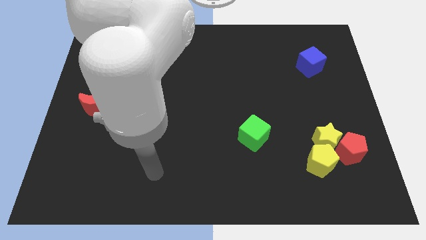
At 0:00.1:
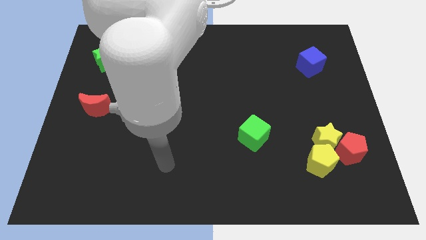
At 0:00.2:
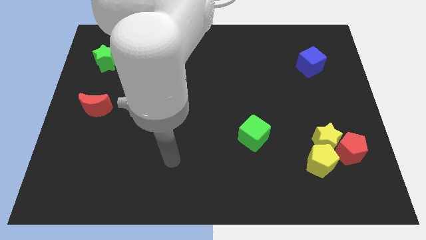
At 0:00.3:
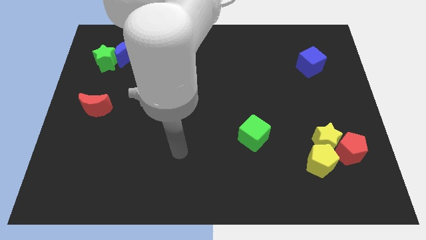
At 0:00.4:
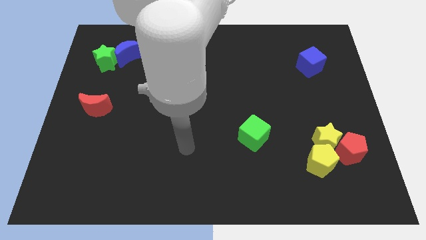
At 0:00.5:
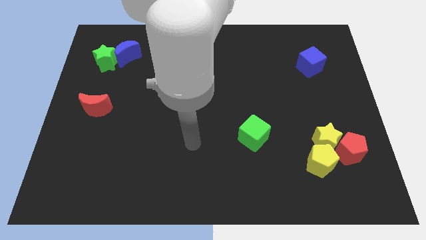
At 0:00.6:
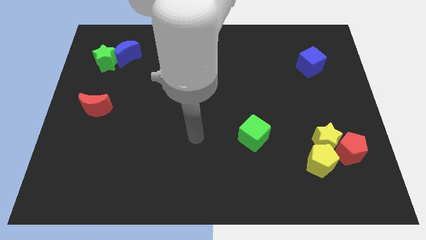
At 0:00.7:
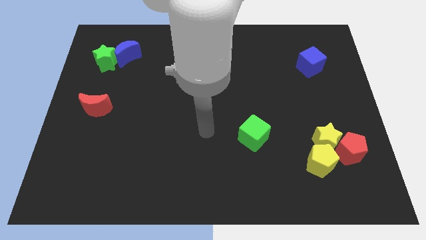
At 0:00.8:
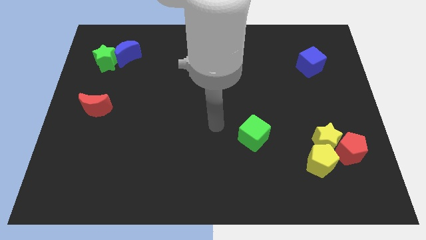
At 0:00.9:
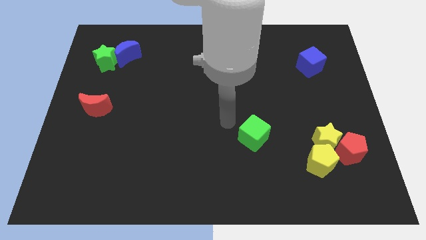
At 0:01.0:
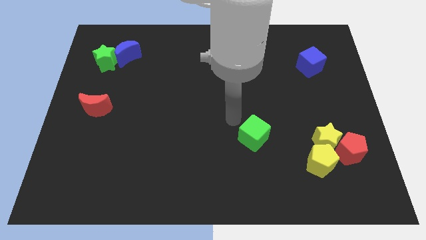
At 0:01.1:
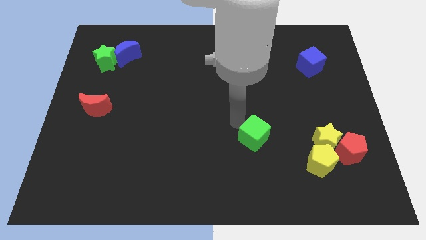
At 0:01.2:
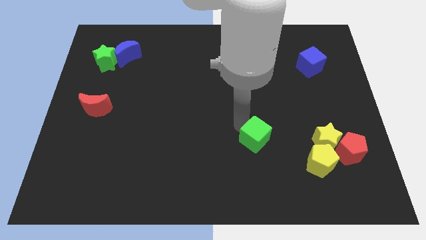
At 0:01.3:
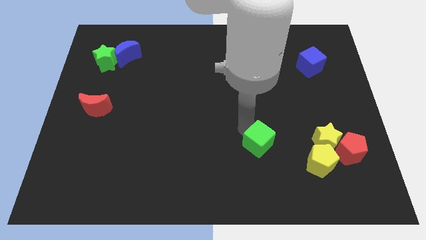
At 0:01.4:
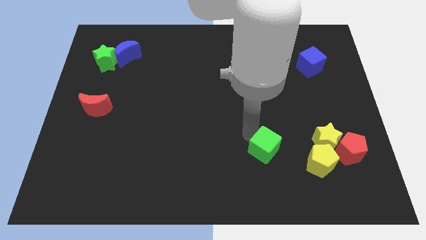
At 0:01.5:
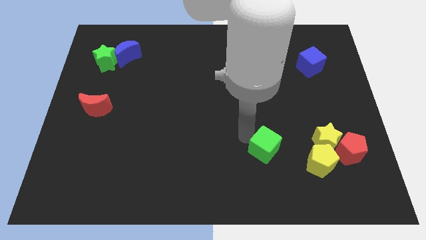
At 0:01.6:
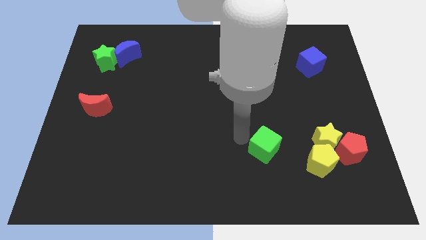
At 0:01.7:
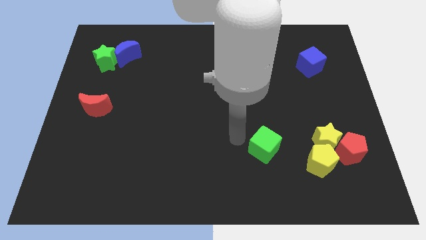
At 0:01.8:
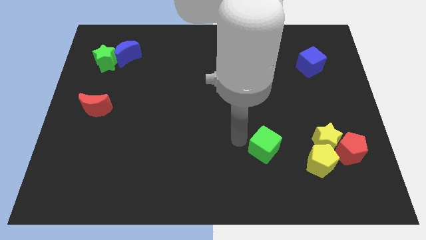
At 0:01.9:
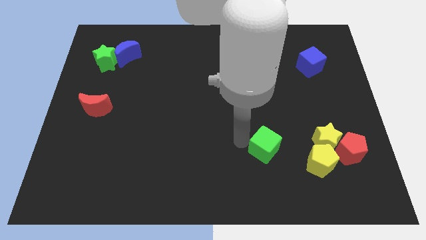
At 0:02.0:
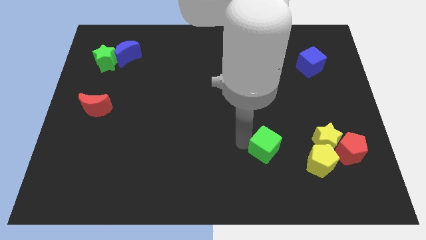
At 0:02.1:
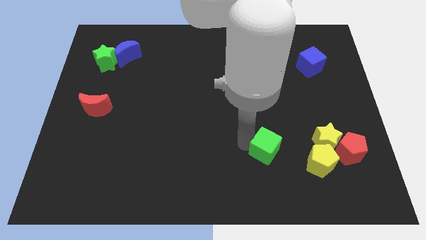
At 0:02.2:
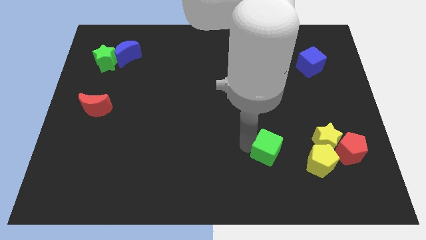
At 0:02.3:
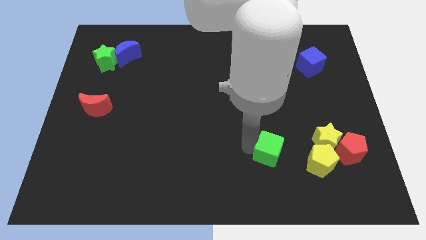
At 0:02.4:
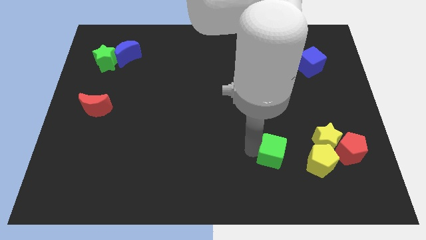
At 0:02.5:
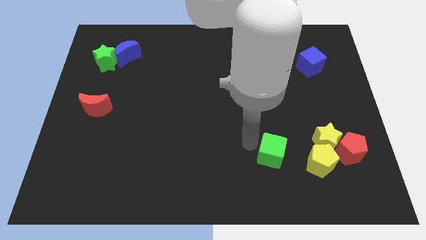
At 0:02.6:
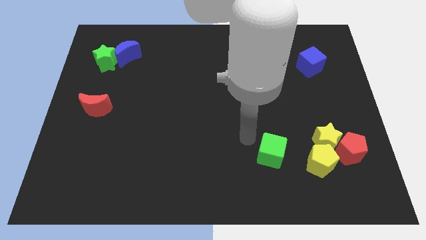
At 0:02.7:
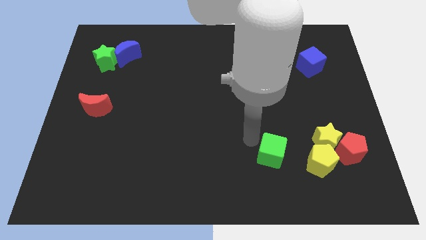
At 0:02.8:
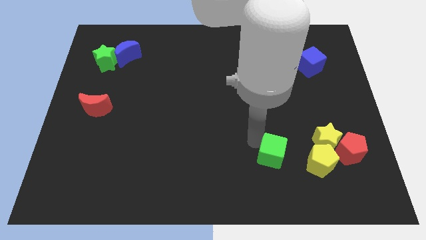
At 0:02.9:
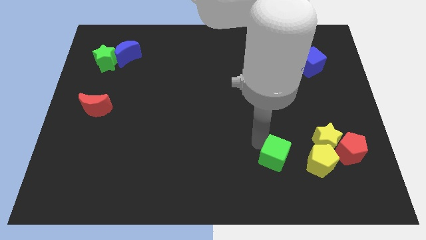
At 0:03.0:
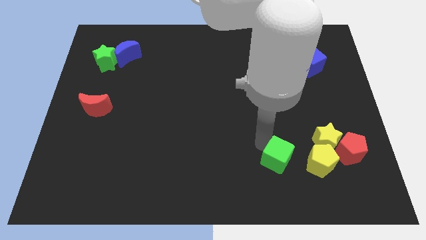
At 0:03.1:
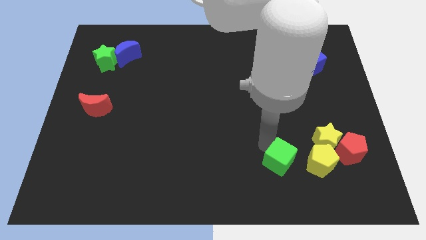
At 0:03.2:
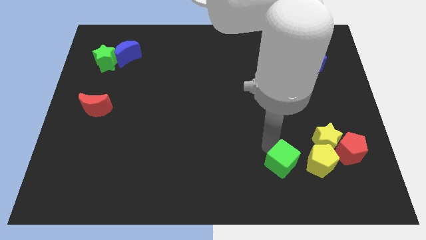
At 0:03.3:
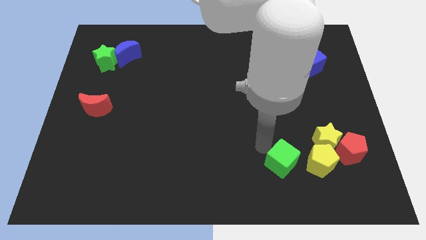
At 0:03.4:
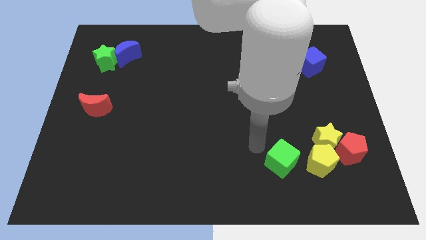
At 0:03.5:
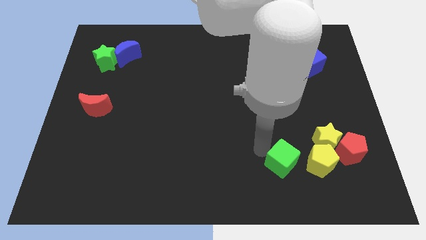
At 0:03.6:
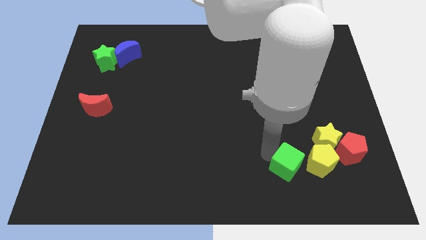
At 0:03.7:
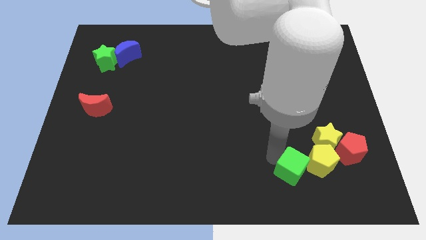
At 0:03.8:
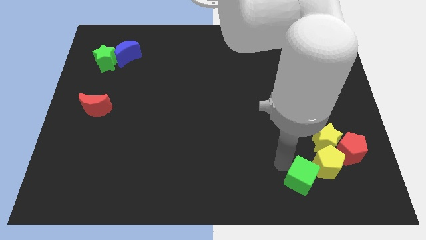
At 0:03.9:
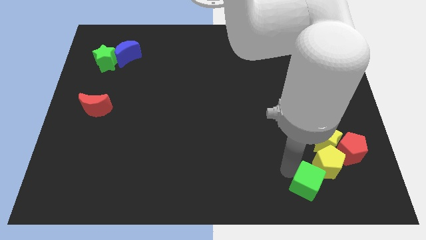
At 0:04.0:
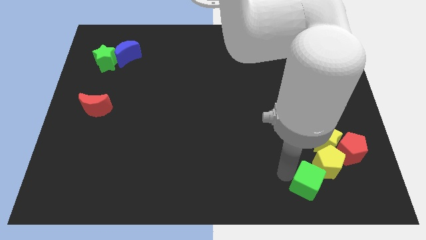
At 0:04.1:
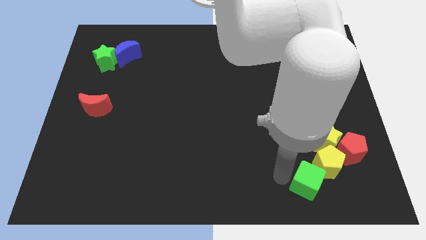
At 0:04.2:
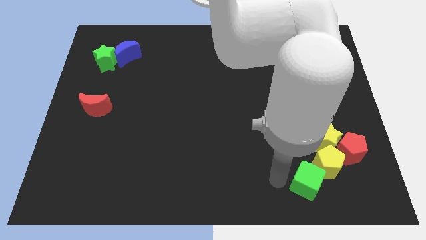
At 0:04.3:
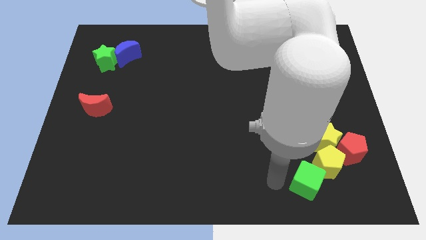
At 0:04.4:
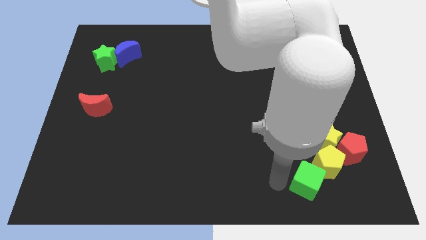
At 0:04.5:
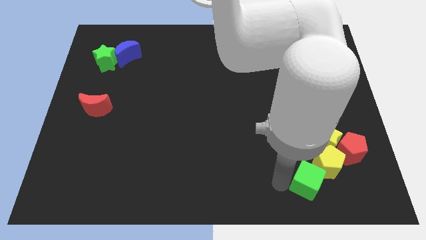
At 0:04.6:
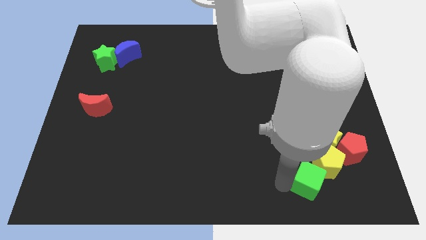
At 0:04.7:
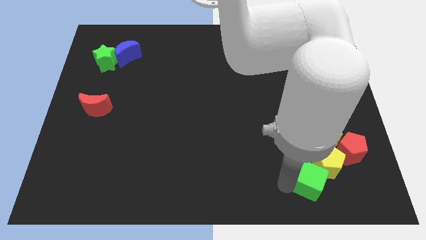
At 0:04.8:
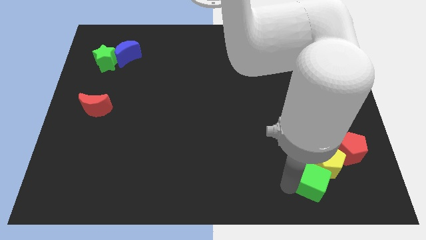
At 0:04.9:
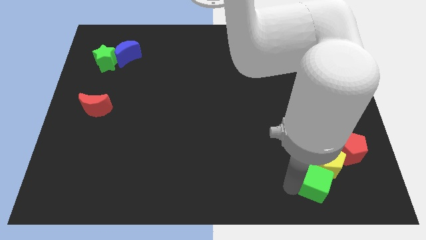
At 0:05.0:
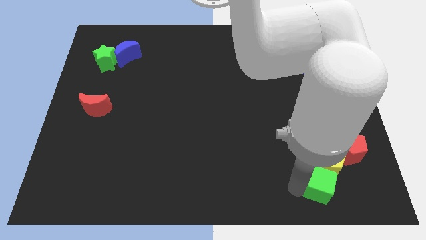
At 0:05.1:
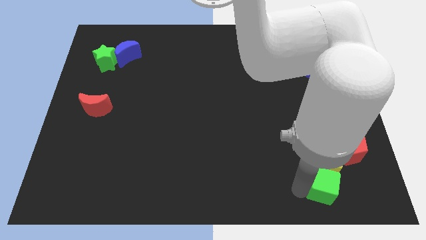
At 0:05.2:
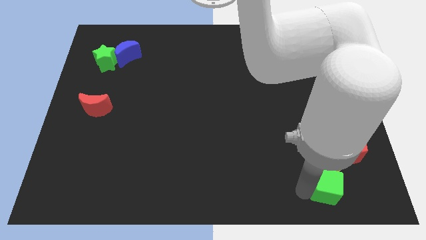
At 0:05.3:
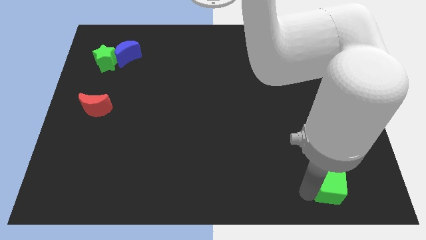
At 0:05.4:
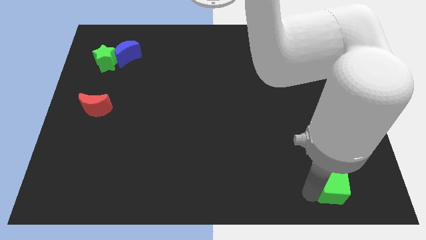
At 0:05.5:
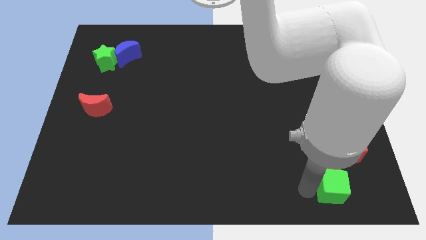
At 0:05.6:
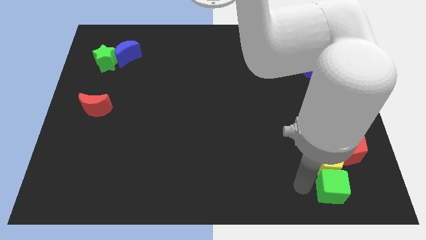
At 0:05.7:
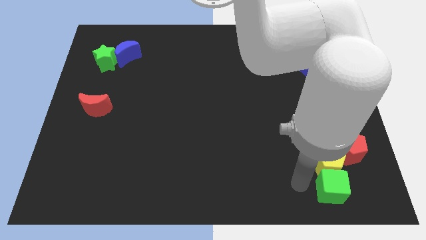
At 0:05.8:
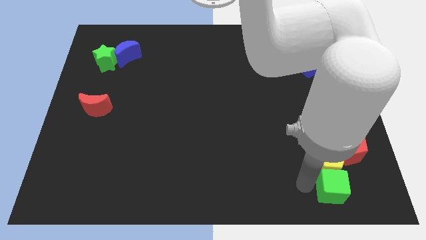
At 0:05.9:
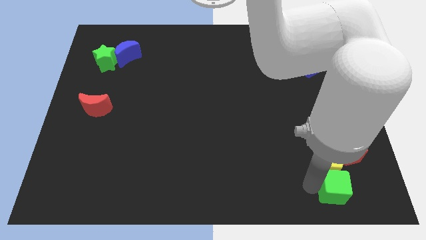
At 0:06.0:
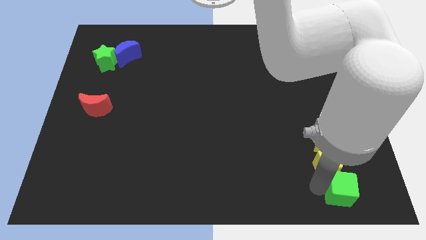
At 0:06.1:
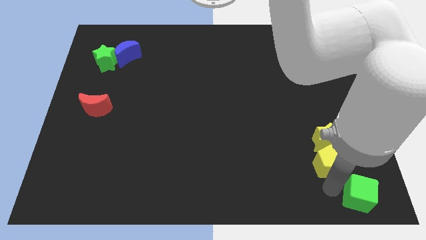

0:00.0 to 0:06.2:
push the green cube to the bottom right corner
